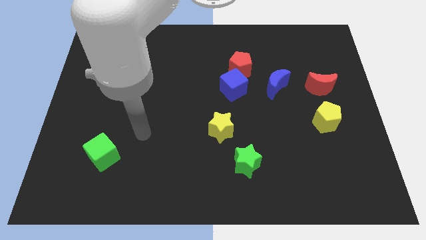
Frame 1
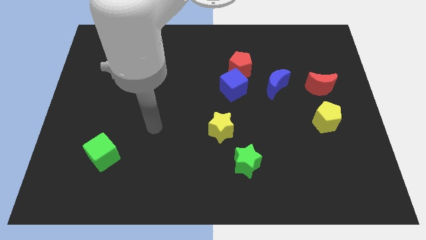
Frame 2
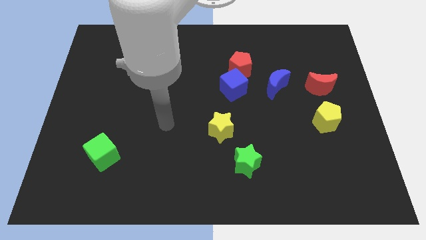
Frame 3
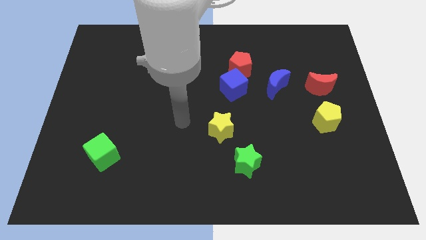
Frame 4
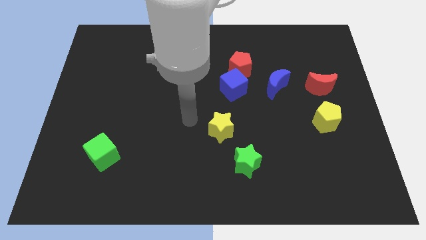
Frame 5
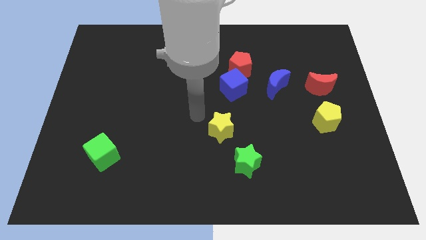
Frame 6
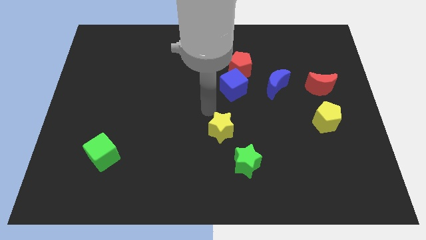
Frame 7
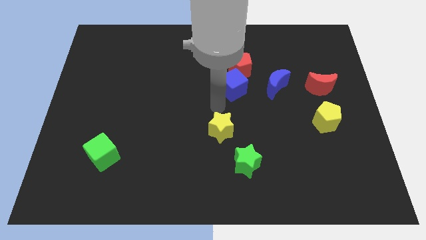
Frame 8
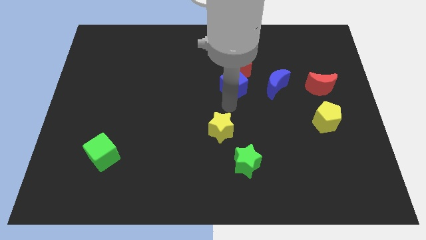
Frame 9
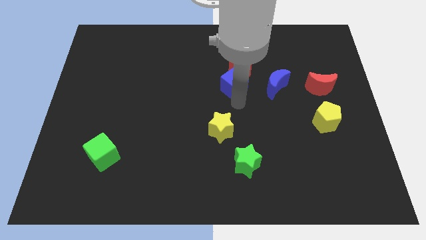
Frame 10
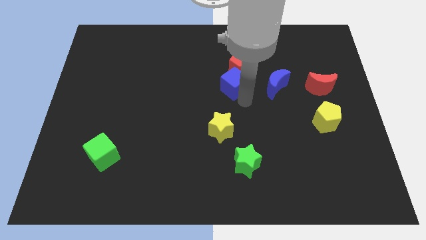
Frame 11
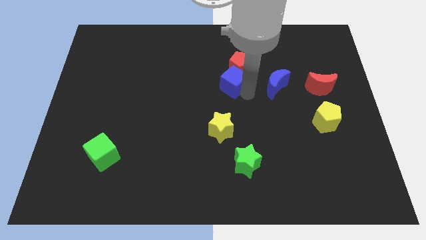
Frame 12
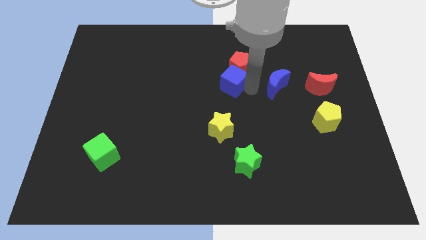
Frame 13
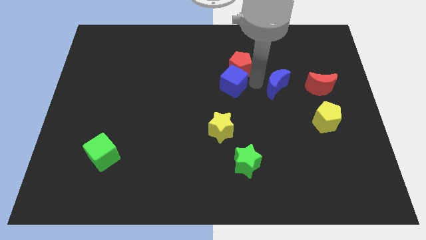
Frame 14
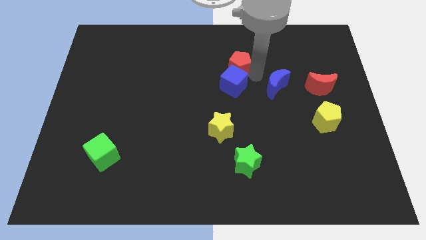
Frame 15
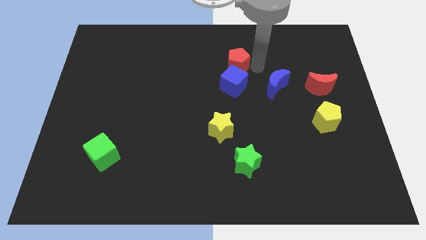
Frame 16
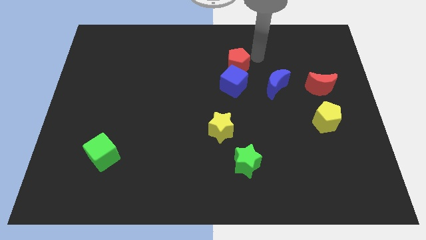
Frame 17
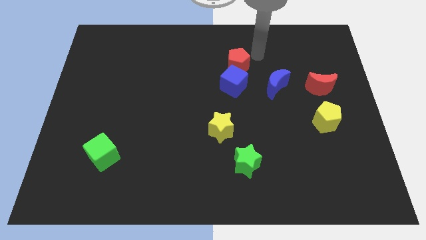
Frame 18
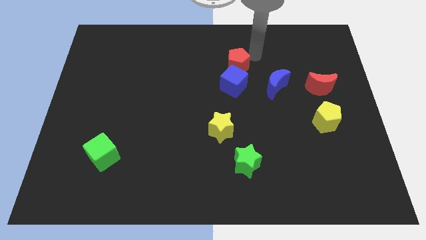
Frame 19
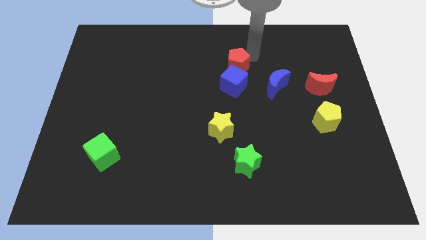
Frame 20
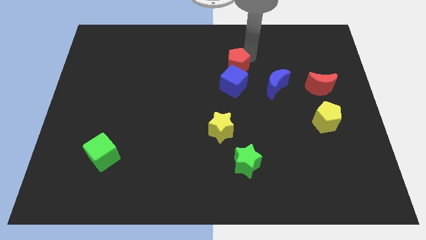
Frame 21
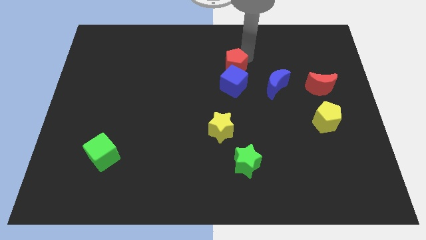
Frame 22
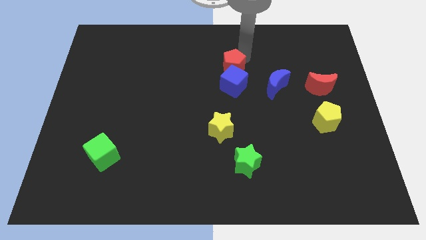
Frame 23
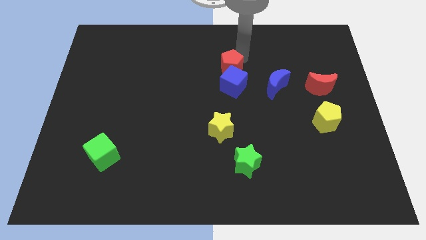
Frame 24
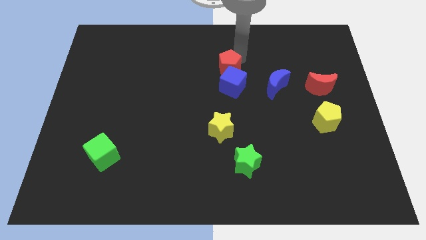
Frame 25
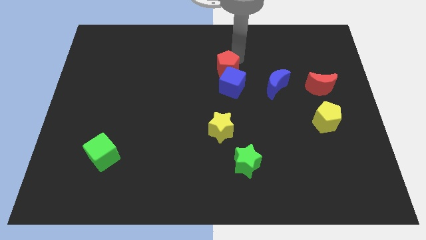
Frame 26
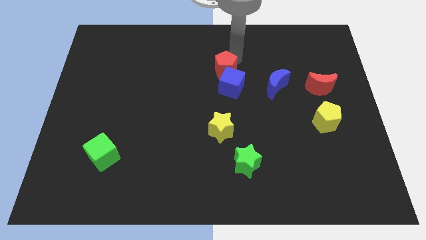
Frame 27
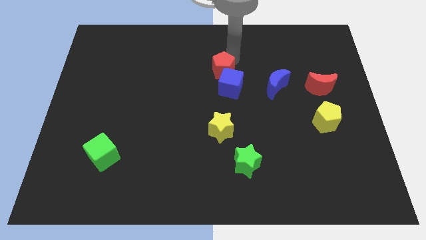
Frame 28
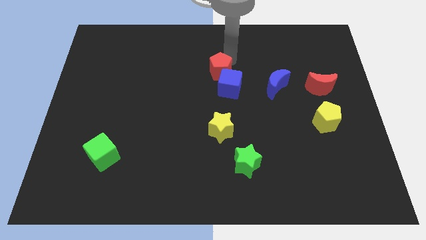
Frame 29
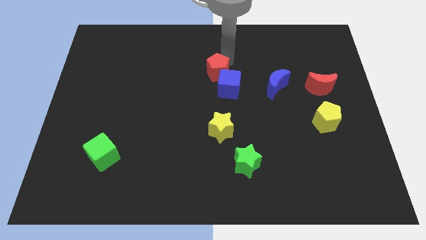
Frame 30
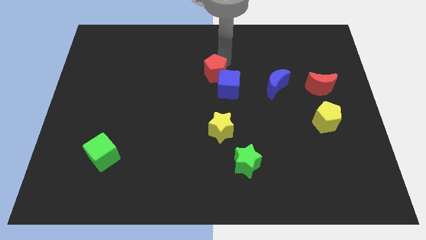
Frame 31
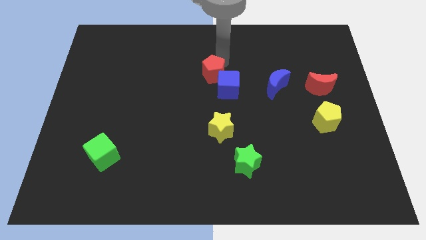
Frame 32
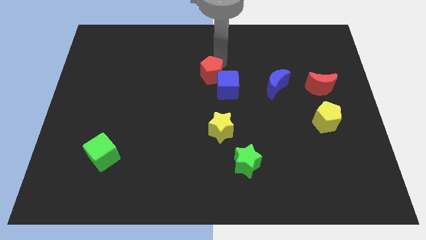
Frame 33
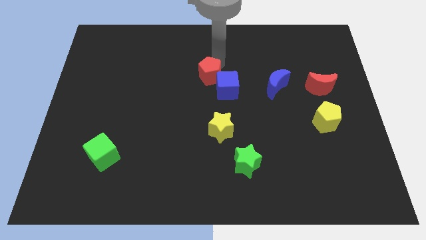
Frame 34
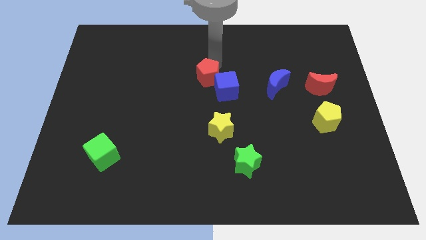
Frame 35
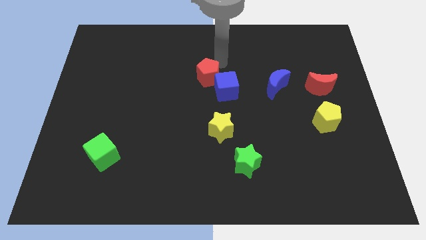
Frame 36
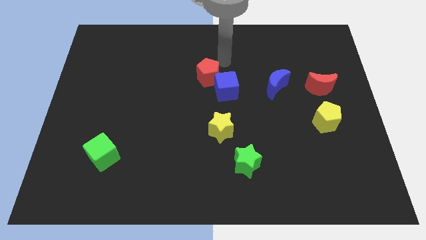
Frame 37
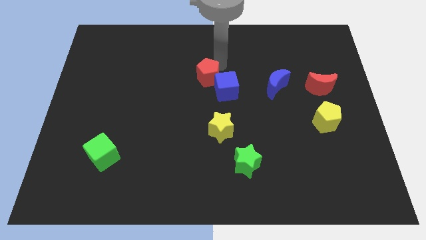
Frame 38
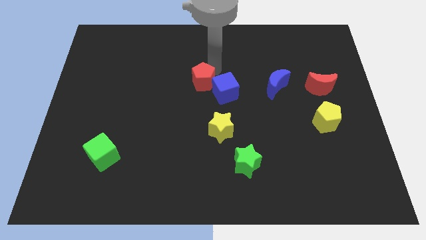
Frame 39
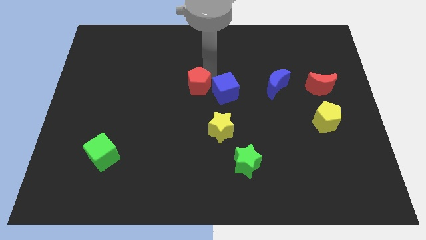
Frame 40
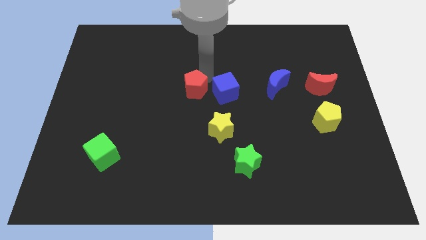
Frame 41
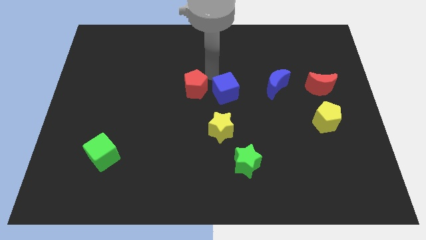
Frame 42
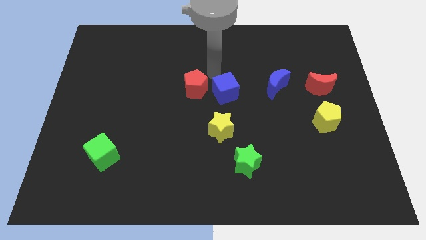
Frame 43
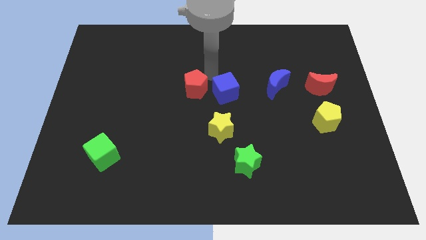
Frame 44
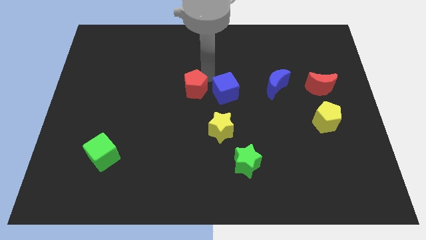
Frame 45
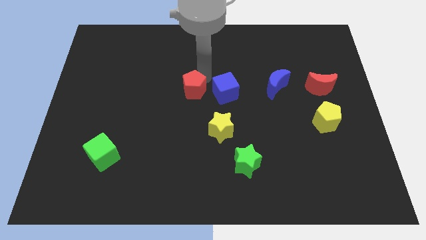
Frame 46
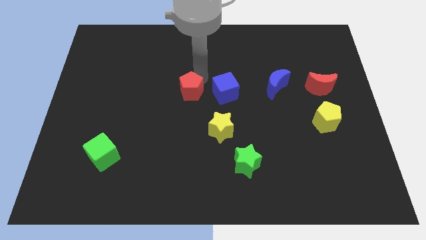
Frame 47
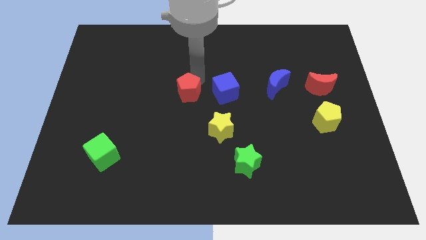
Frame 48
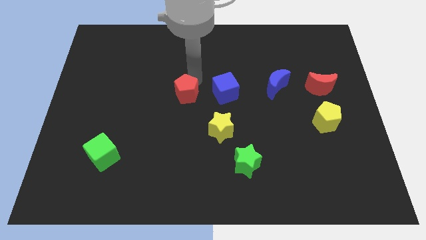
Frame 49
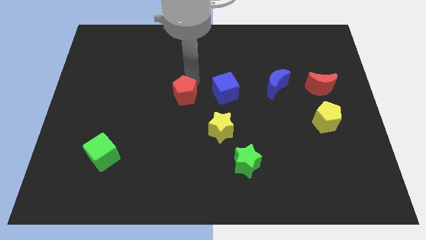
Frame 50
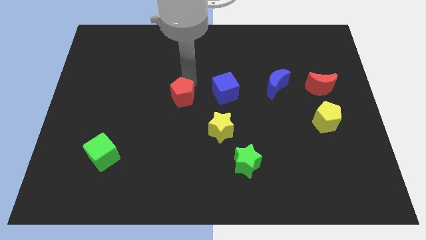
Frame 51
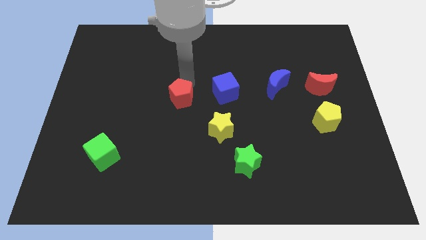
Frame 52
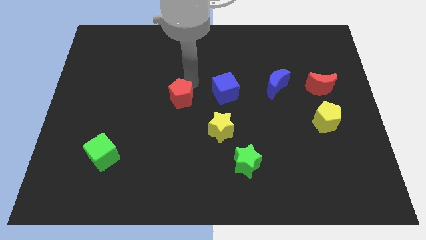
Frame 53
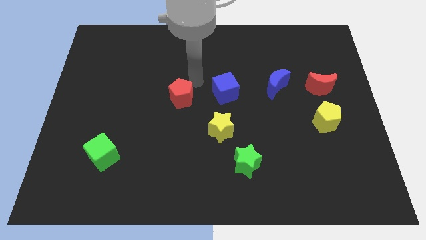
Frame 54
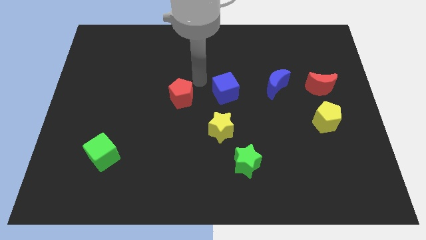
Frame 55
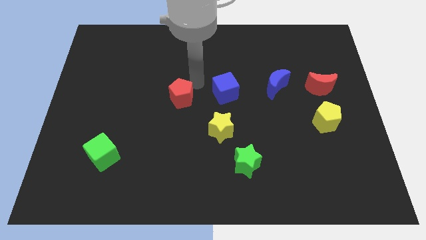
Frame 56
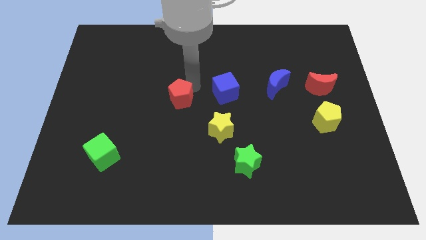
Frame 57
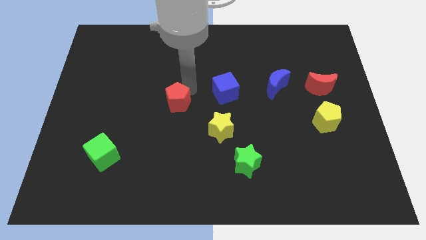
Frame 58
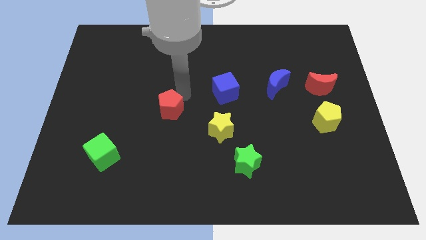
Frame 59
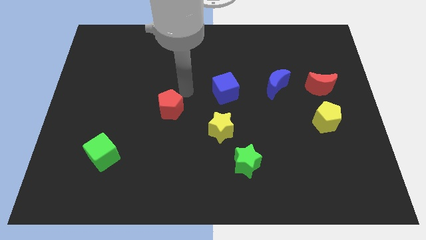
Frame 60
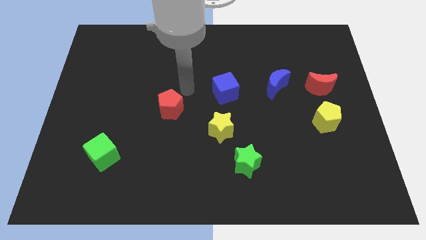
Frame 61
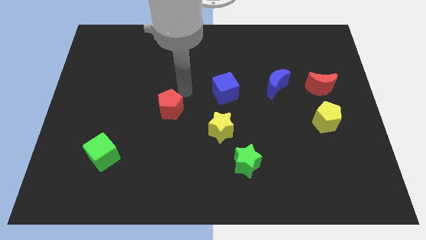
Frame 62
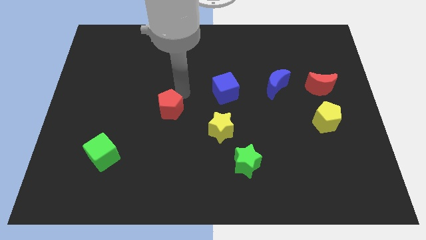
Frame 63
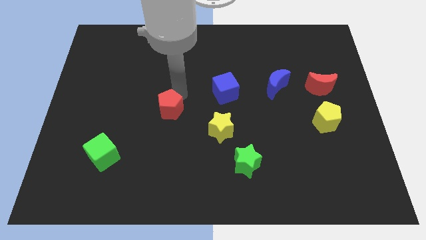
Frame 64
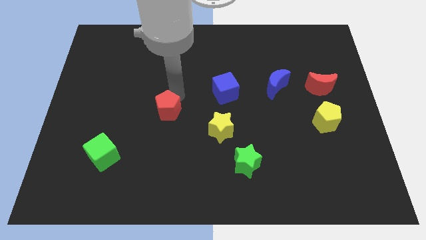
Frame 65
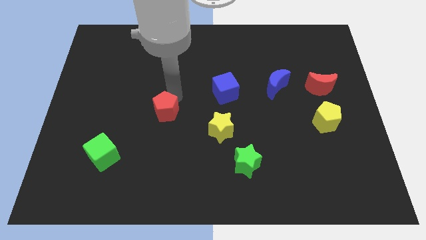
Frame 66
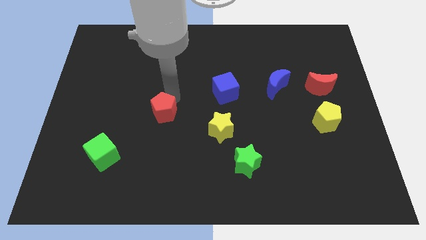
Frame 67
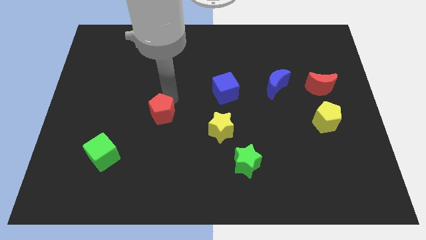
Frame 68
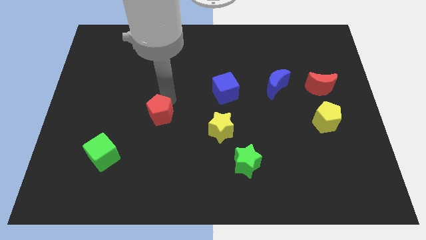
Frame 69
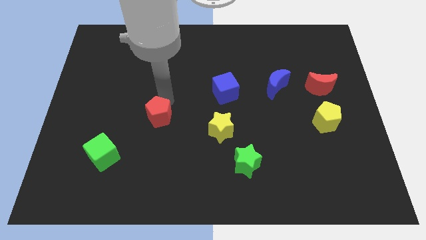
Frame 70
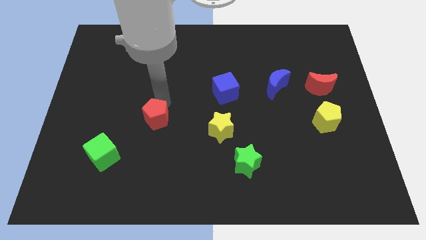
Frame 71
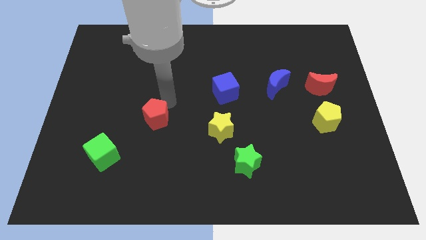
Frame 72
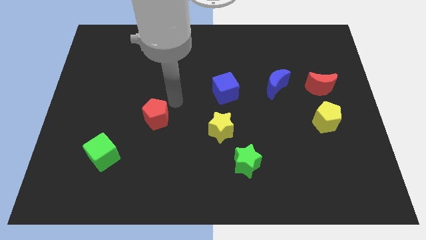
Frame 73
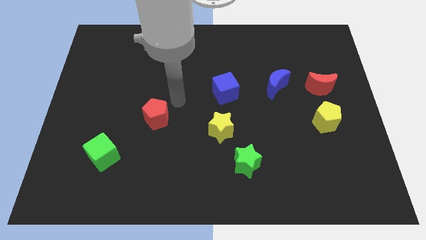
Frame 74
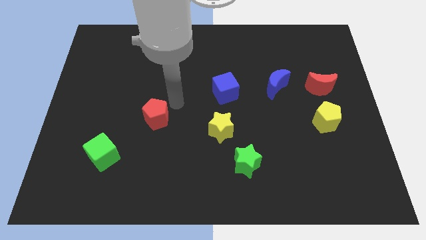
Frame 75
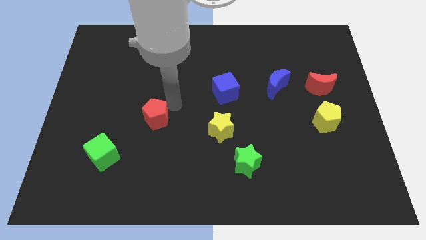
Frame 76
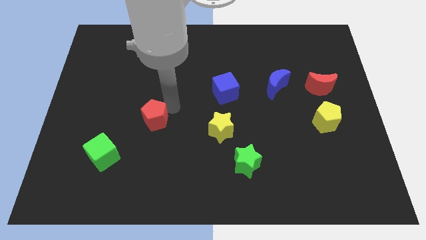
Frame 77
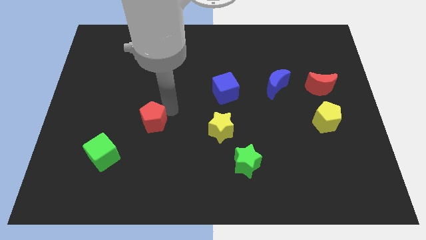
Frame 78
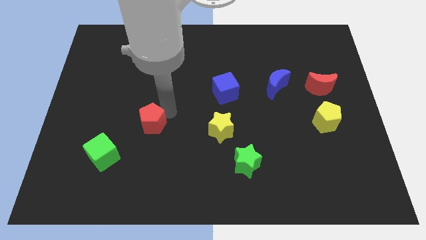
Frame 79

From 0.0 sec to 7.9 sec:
slide the red pentagon to the top right of the green cube
